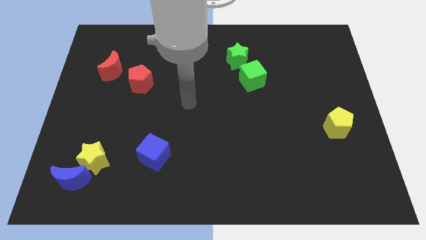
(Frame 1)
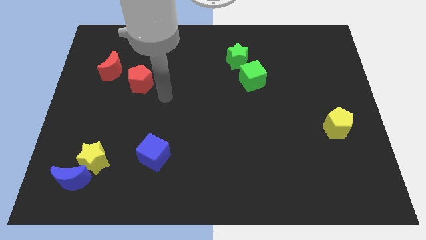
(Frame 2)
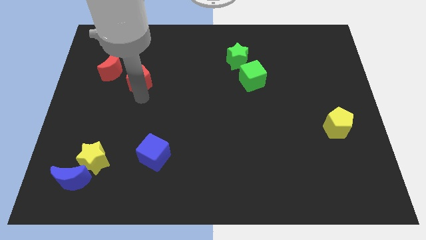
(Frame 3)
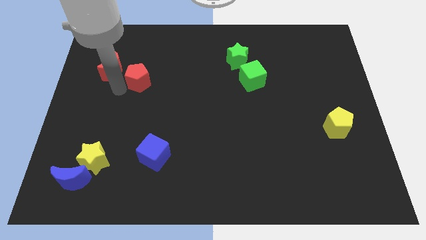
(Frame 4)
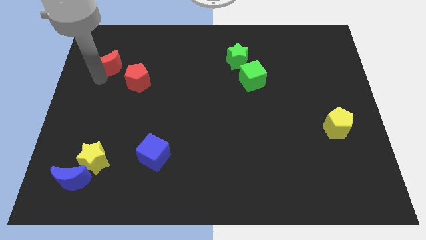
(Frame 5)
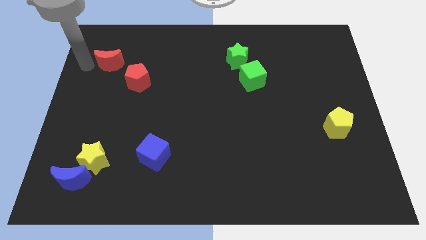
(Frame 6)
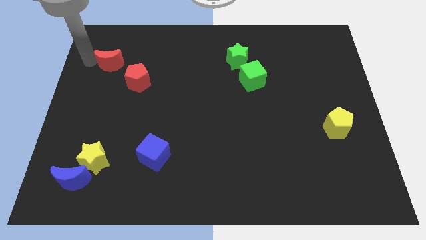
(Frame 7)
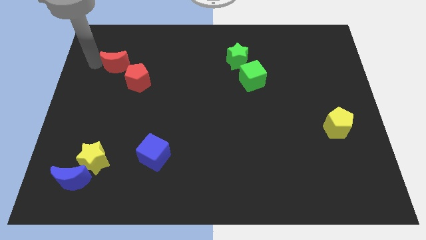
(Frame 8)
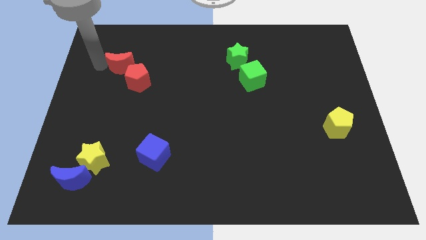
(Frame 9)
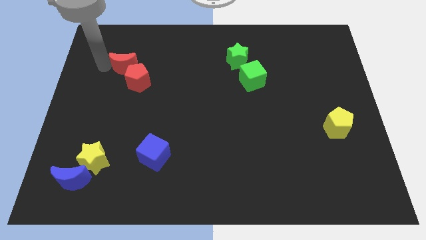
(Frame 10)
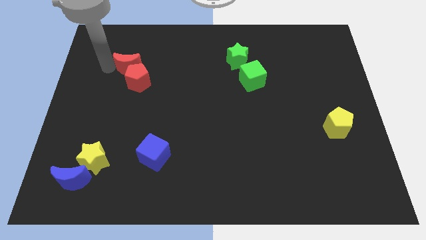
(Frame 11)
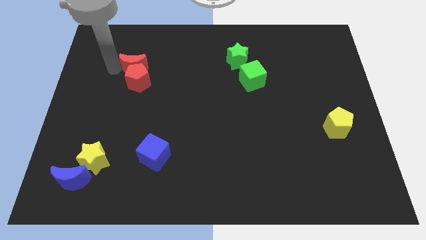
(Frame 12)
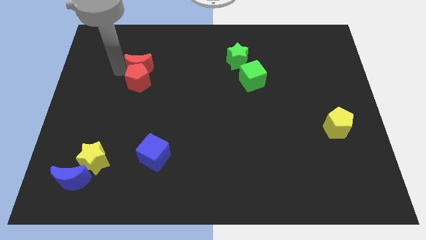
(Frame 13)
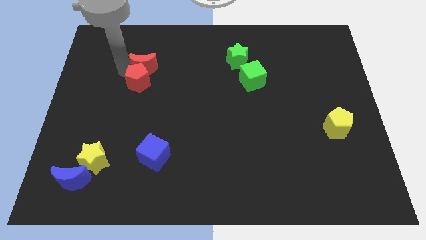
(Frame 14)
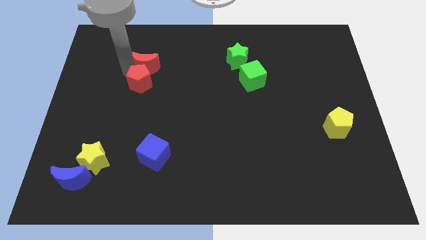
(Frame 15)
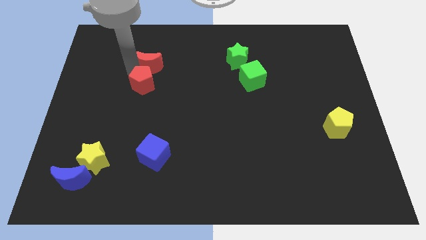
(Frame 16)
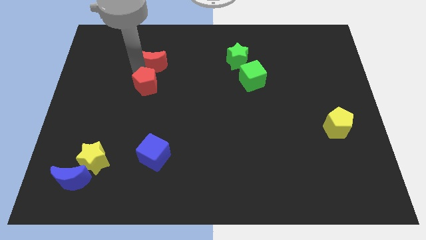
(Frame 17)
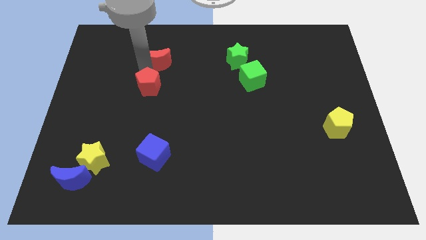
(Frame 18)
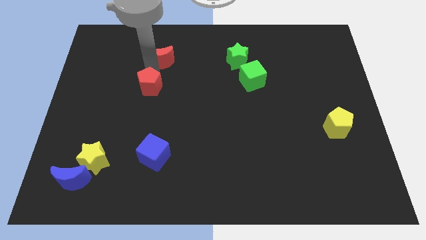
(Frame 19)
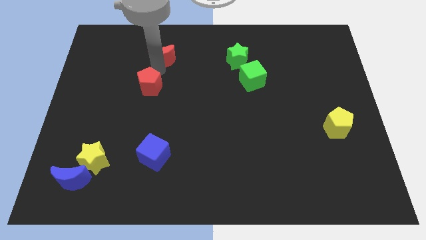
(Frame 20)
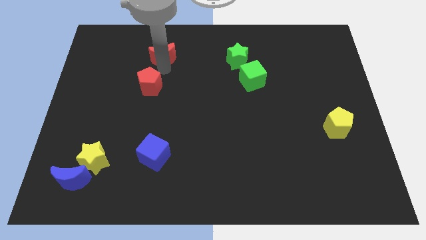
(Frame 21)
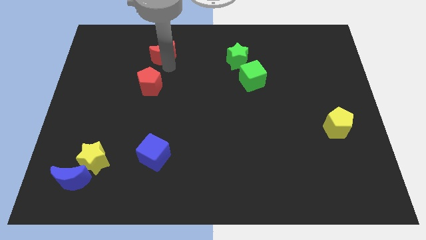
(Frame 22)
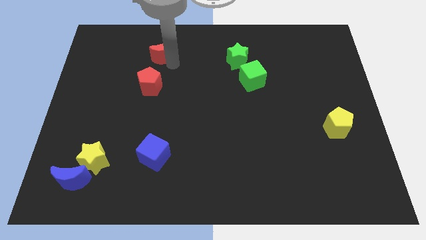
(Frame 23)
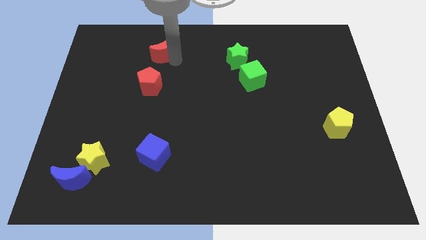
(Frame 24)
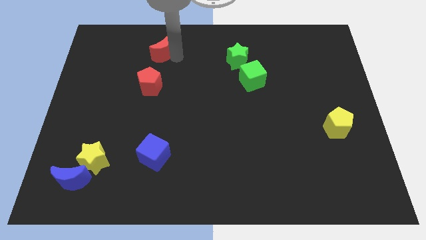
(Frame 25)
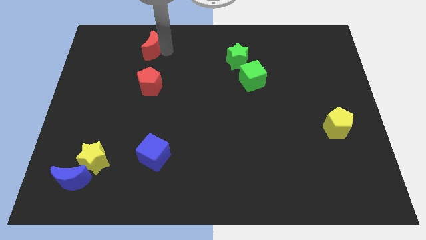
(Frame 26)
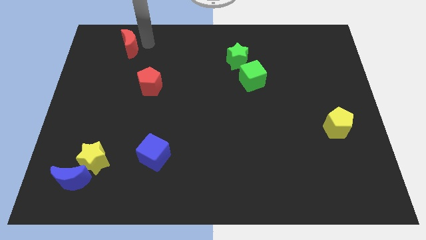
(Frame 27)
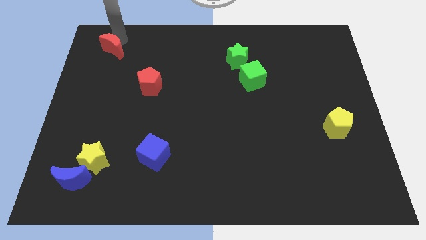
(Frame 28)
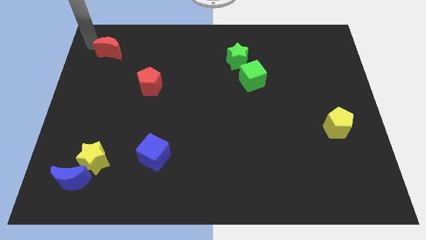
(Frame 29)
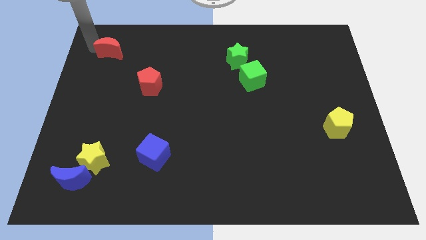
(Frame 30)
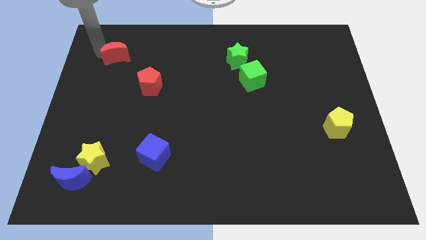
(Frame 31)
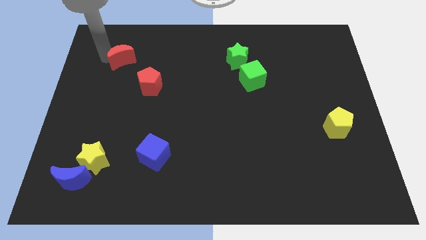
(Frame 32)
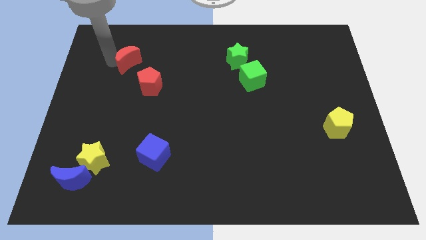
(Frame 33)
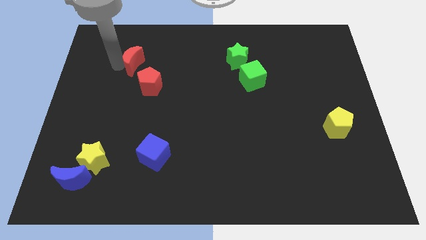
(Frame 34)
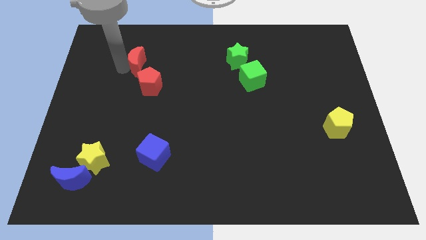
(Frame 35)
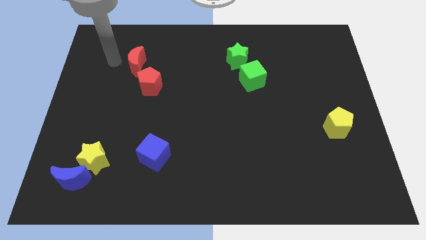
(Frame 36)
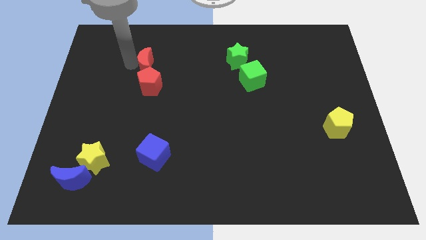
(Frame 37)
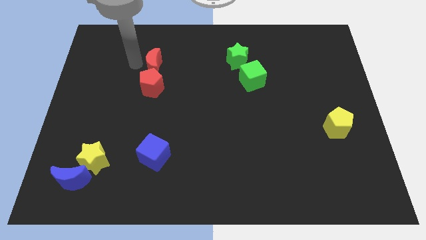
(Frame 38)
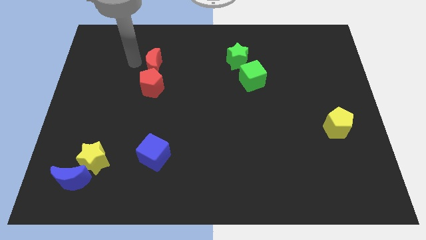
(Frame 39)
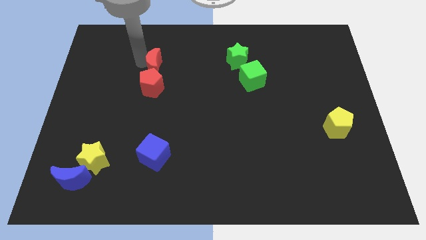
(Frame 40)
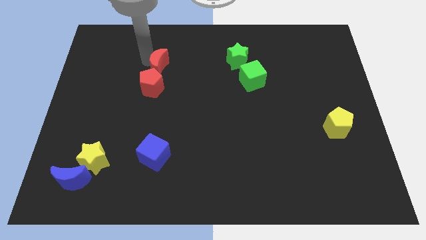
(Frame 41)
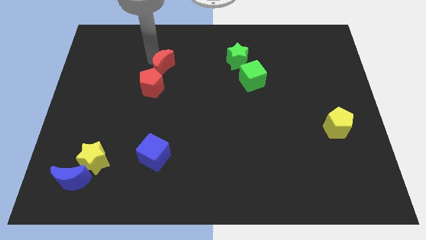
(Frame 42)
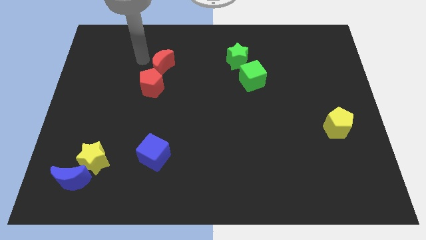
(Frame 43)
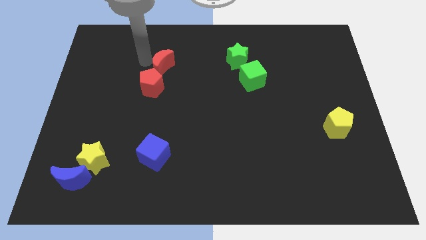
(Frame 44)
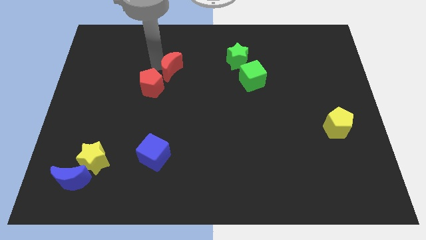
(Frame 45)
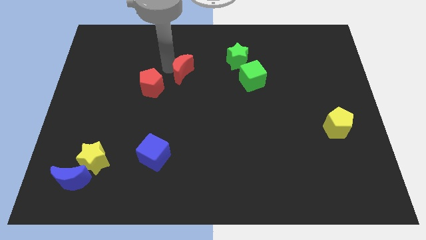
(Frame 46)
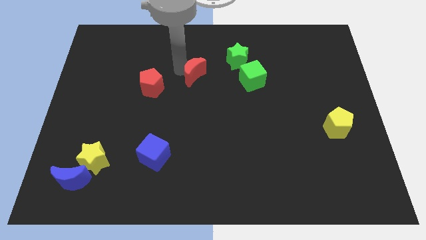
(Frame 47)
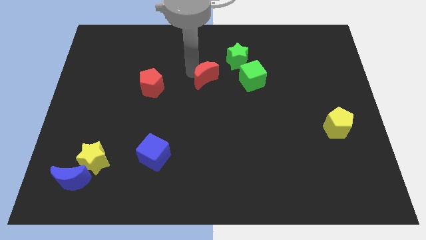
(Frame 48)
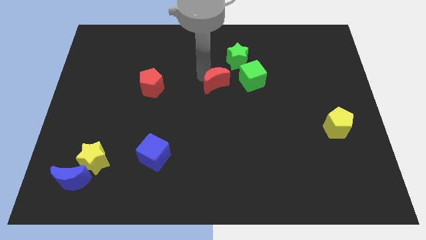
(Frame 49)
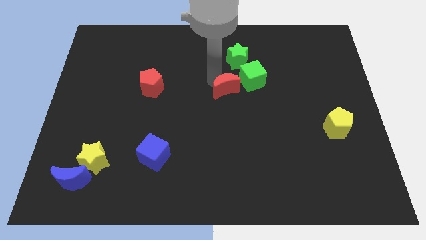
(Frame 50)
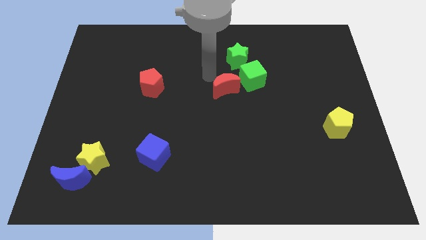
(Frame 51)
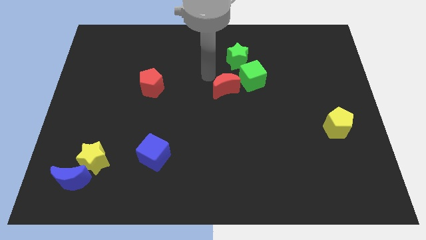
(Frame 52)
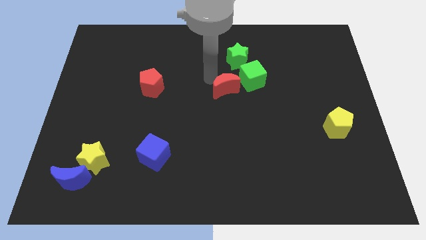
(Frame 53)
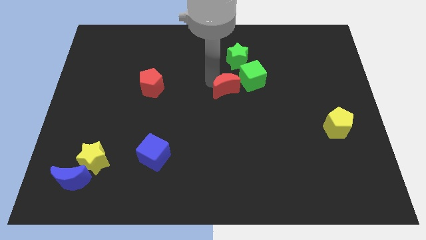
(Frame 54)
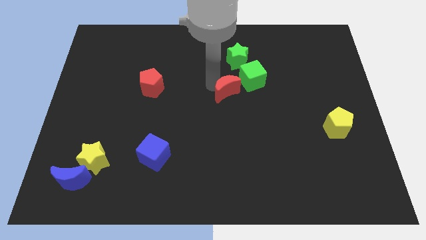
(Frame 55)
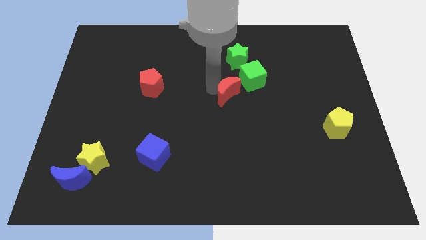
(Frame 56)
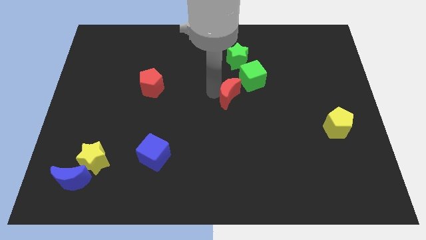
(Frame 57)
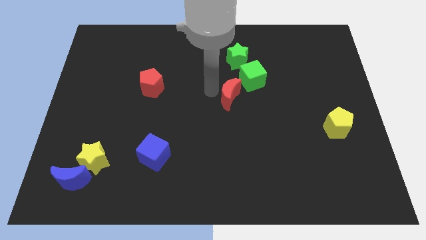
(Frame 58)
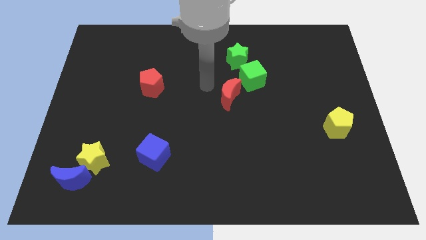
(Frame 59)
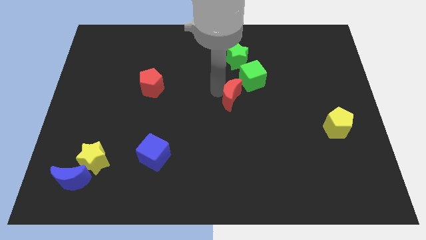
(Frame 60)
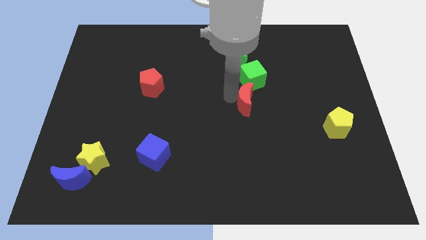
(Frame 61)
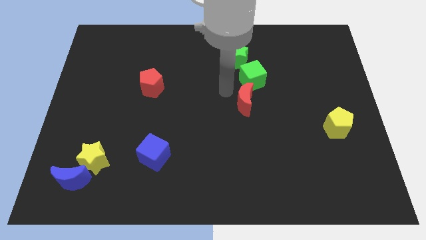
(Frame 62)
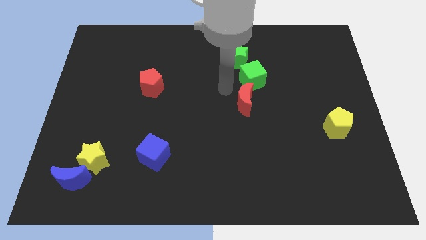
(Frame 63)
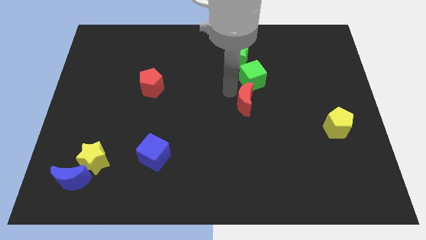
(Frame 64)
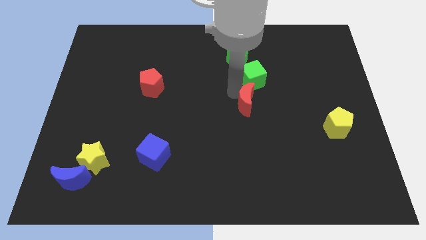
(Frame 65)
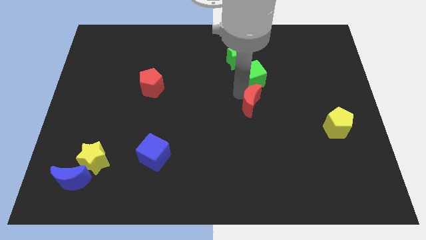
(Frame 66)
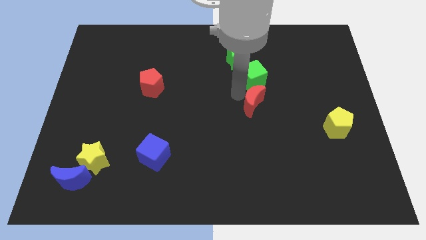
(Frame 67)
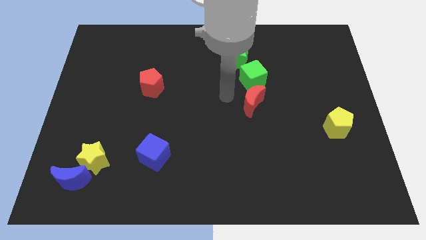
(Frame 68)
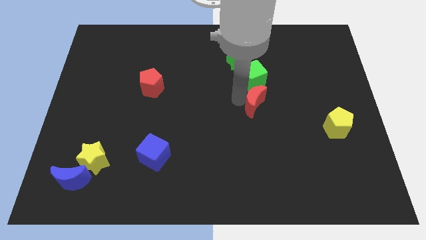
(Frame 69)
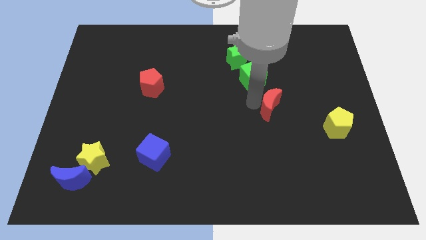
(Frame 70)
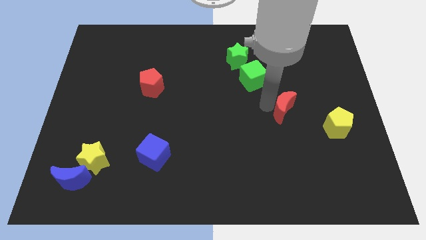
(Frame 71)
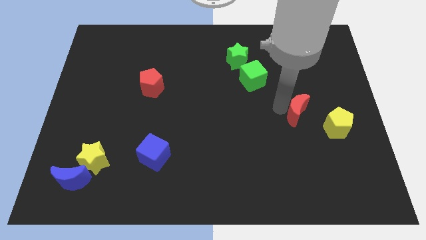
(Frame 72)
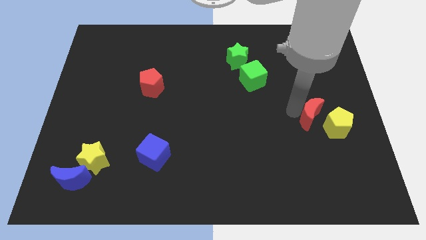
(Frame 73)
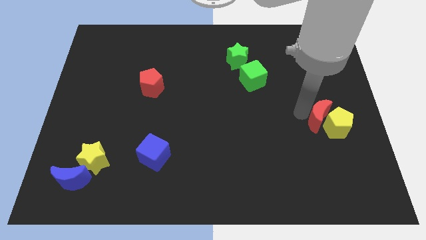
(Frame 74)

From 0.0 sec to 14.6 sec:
slide the red moon to the yellow pentagon

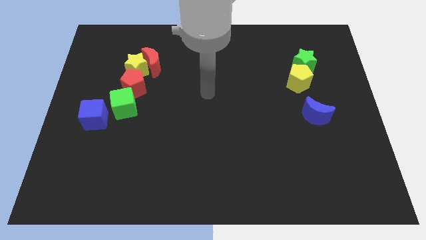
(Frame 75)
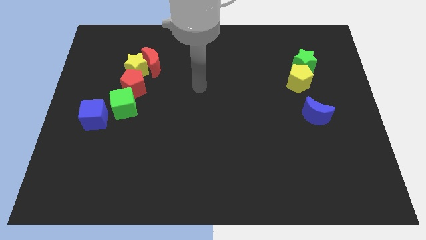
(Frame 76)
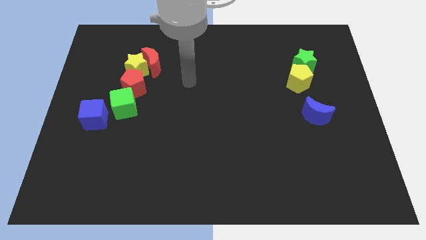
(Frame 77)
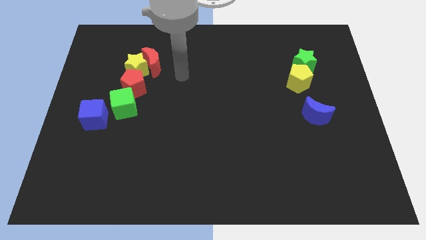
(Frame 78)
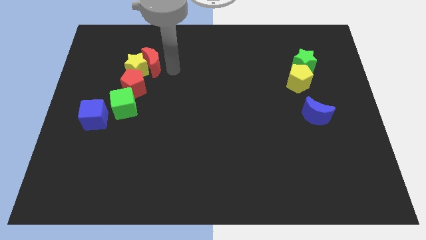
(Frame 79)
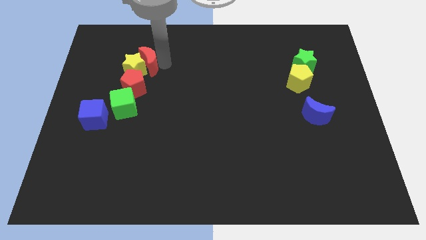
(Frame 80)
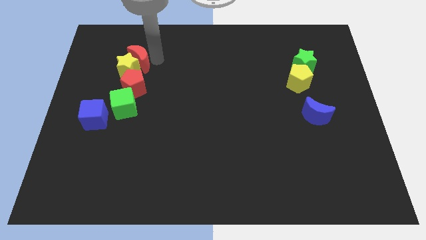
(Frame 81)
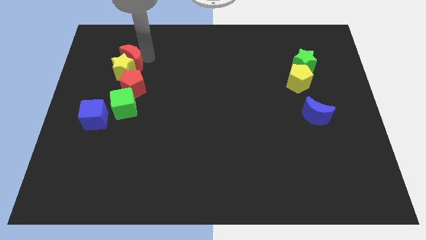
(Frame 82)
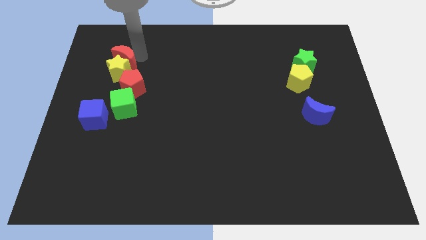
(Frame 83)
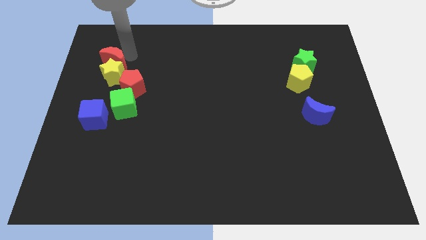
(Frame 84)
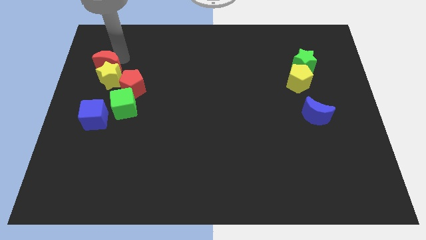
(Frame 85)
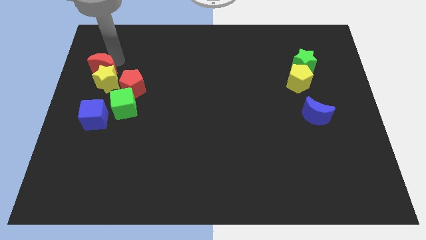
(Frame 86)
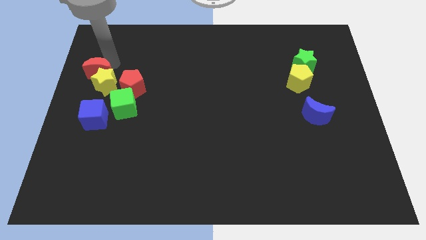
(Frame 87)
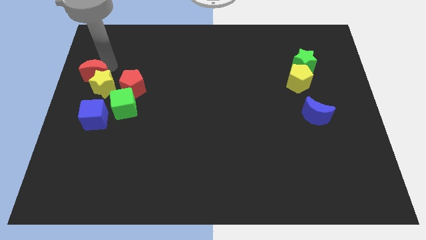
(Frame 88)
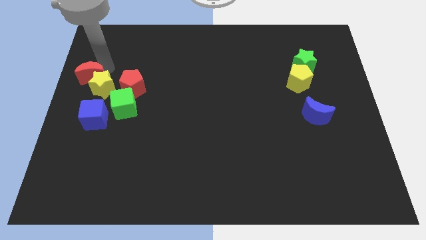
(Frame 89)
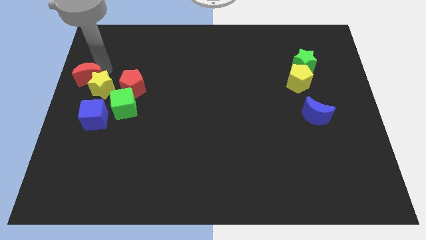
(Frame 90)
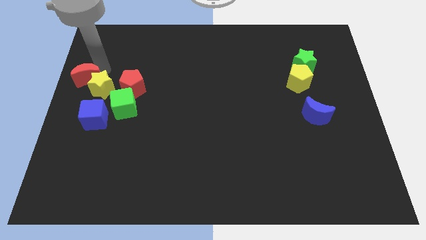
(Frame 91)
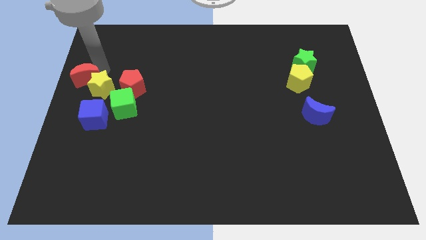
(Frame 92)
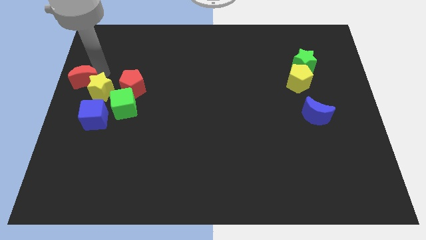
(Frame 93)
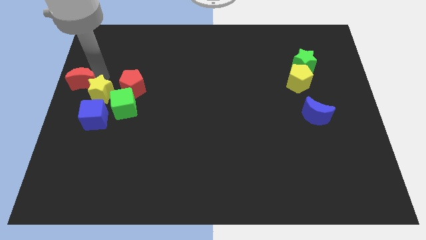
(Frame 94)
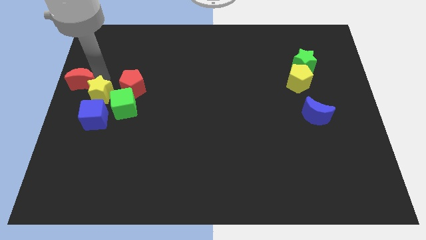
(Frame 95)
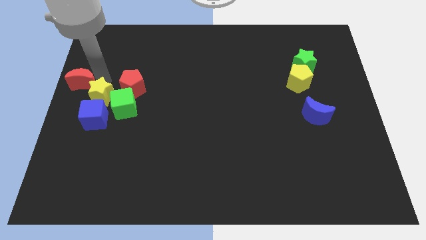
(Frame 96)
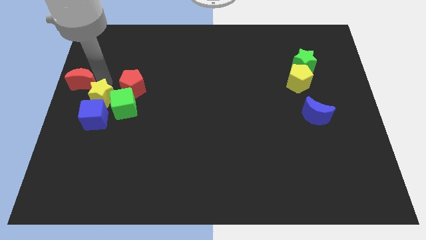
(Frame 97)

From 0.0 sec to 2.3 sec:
put the yellow star next to the blue cube
